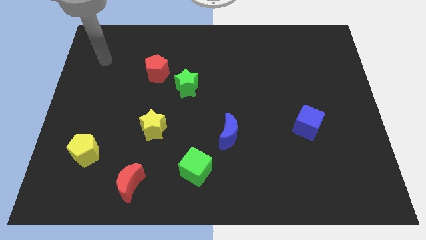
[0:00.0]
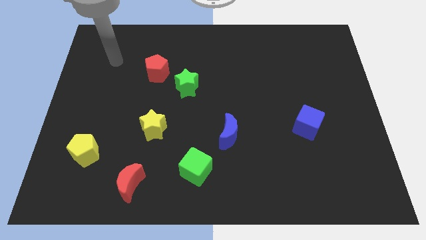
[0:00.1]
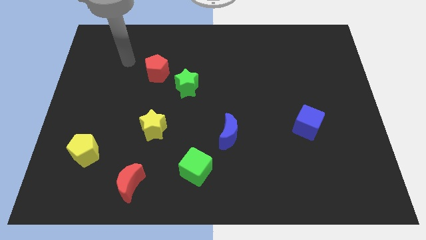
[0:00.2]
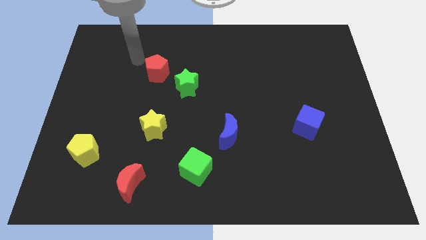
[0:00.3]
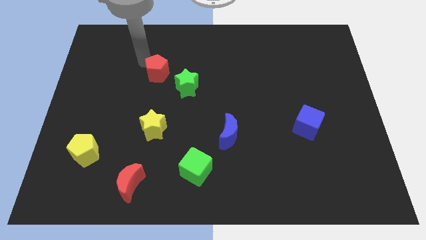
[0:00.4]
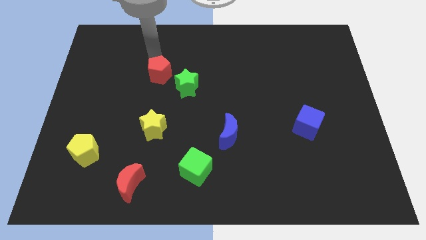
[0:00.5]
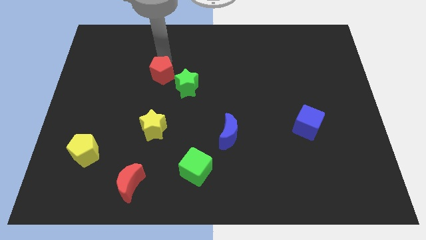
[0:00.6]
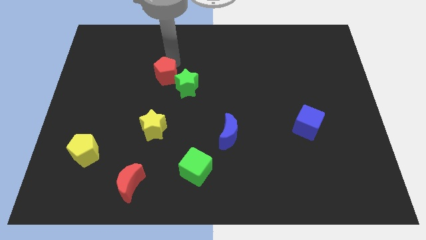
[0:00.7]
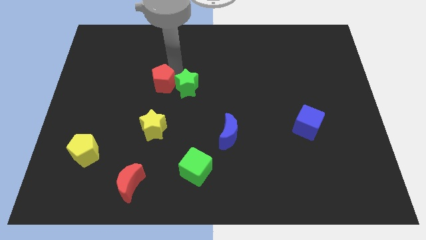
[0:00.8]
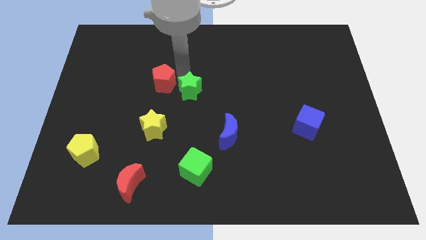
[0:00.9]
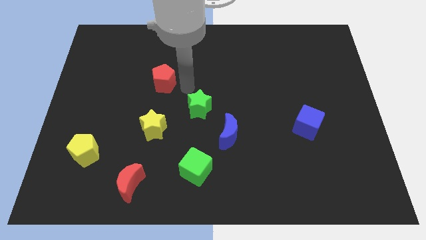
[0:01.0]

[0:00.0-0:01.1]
separate the red pentagon from the green star

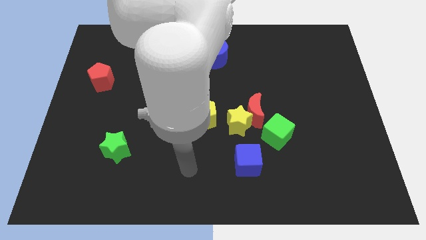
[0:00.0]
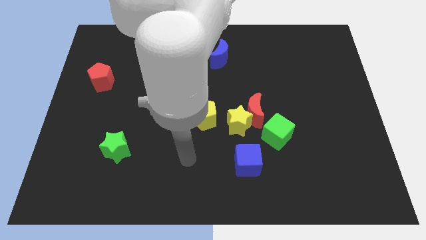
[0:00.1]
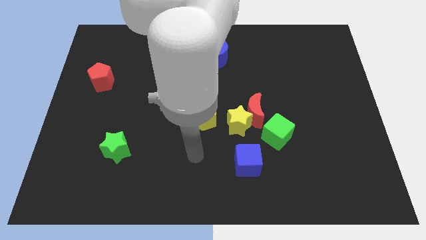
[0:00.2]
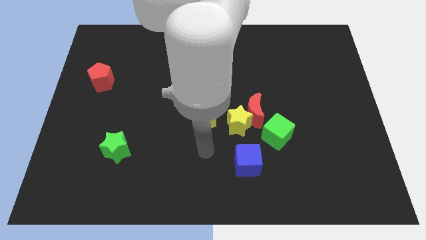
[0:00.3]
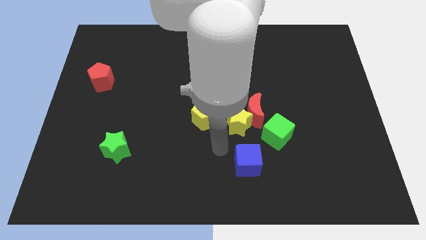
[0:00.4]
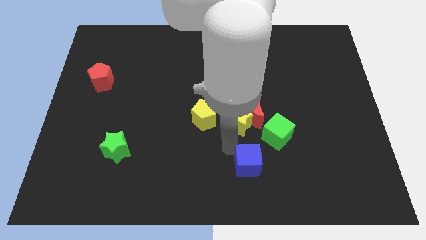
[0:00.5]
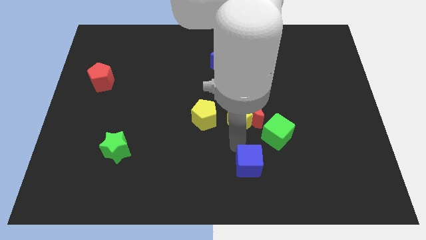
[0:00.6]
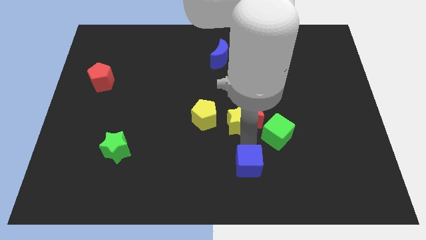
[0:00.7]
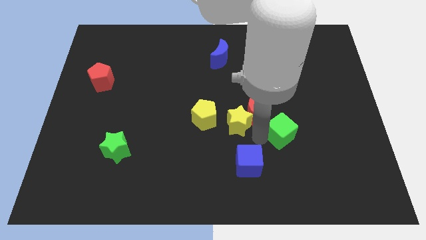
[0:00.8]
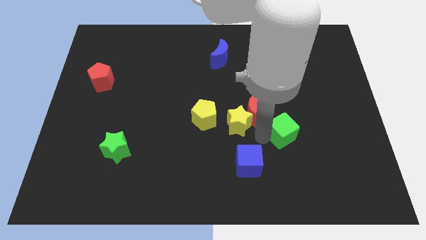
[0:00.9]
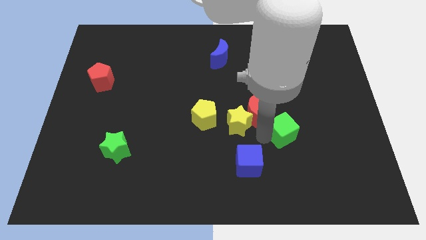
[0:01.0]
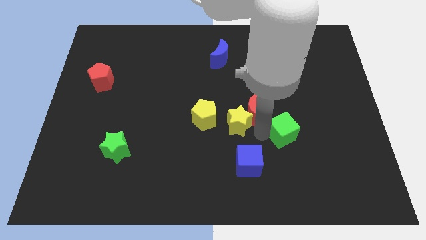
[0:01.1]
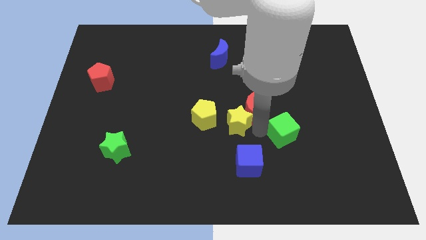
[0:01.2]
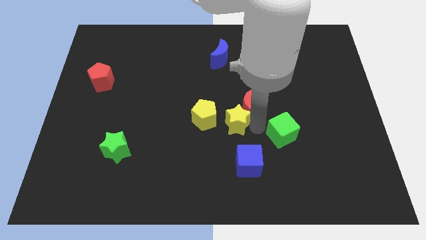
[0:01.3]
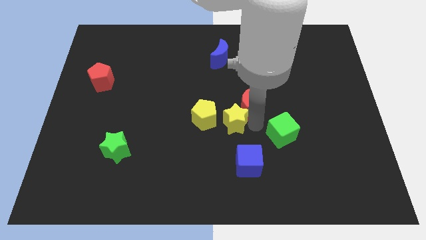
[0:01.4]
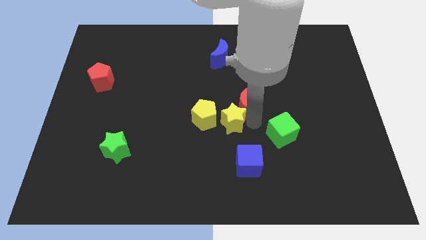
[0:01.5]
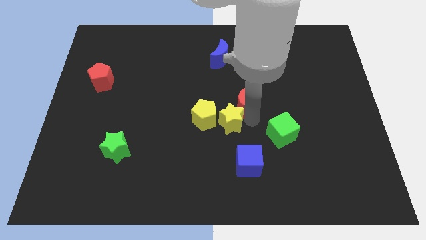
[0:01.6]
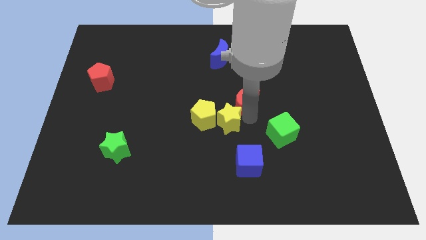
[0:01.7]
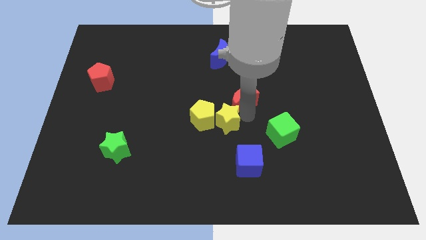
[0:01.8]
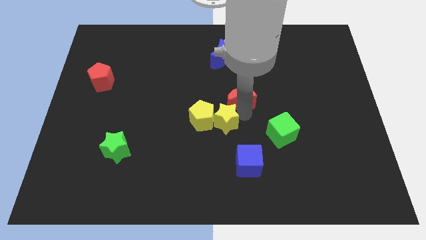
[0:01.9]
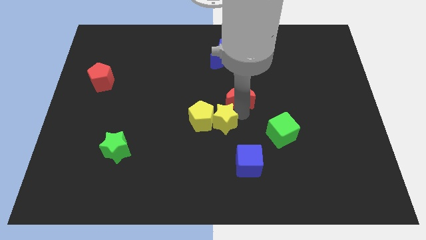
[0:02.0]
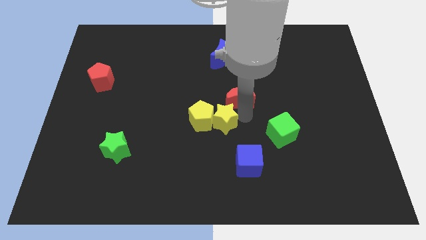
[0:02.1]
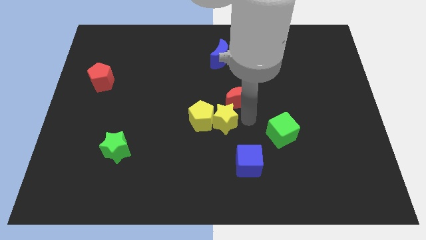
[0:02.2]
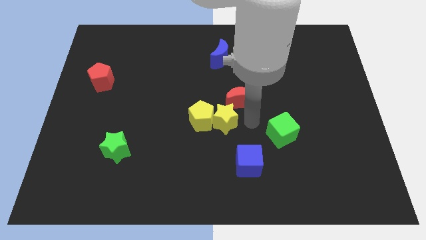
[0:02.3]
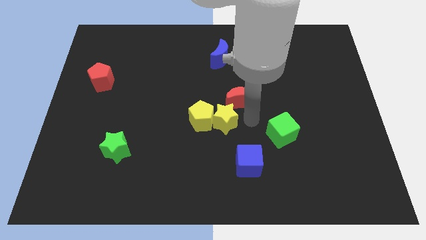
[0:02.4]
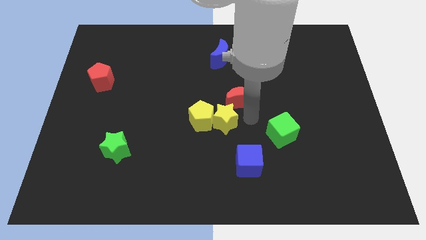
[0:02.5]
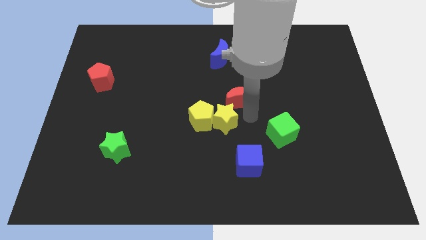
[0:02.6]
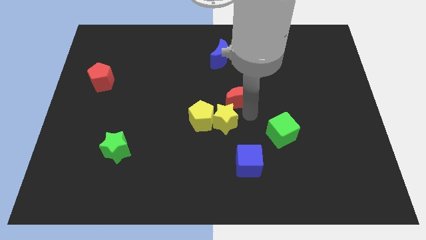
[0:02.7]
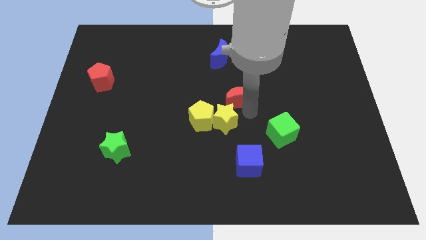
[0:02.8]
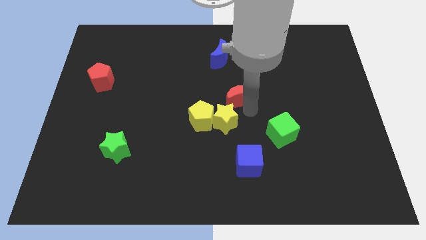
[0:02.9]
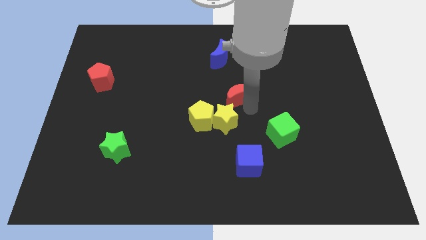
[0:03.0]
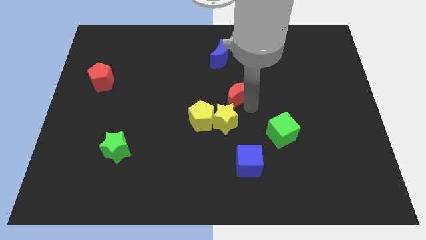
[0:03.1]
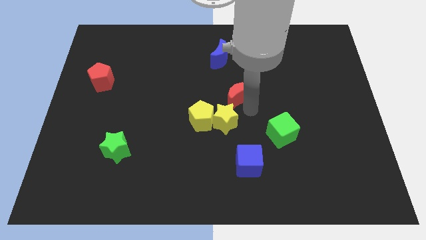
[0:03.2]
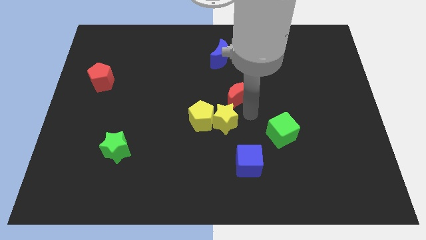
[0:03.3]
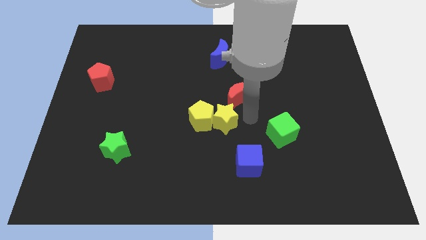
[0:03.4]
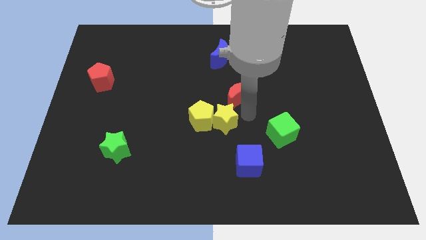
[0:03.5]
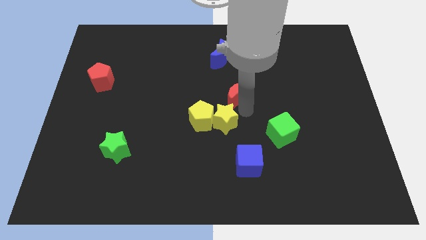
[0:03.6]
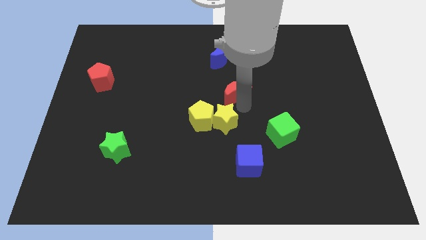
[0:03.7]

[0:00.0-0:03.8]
move the red moon away from the yellow star and green cube

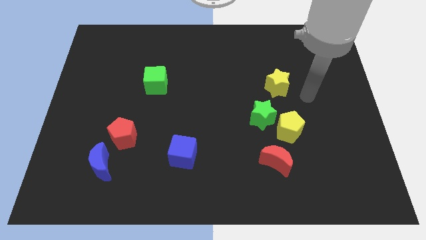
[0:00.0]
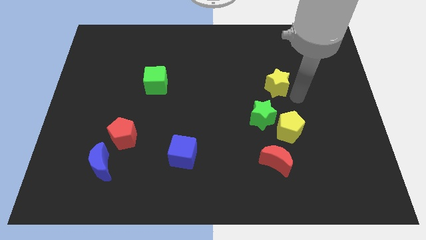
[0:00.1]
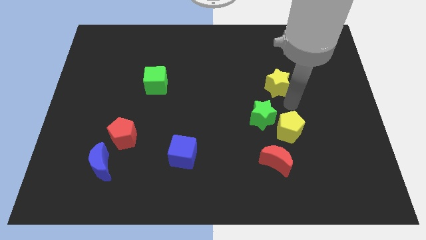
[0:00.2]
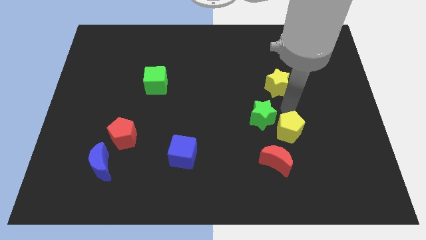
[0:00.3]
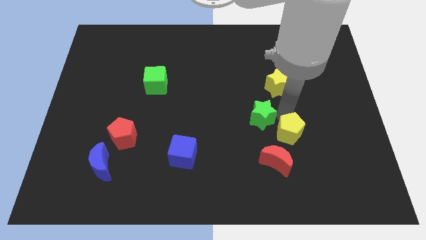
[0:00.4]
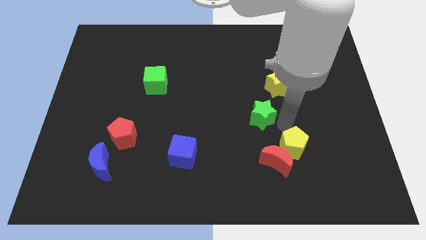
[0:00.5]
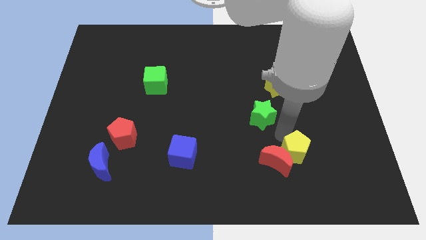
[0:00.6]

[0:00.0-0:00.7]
pull the green star apart from the yellow pentagon

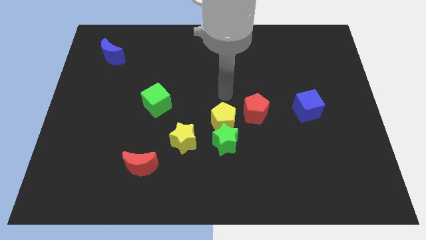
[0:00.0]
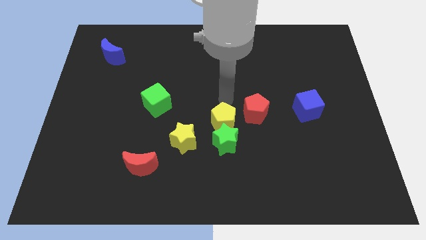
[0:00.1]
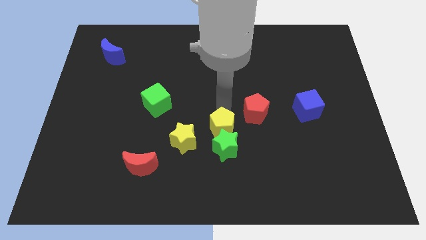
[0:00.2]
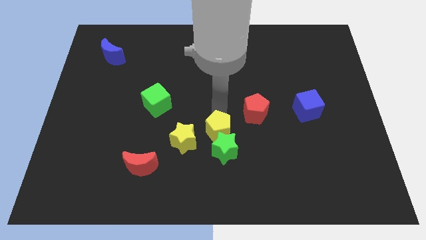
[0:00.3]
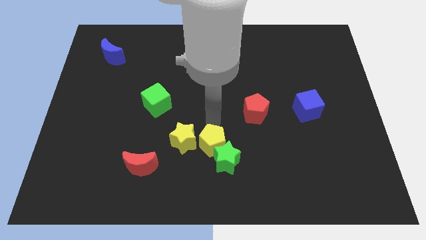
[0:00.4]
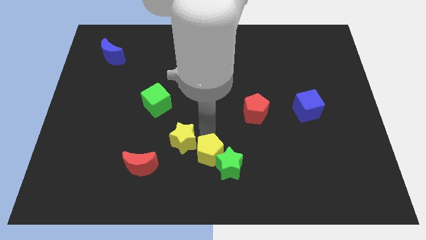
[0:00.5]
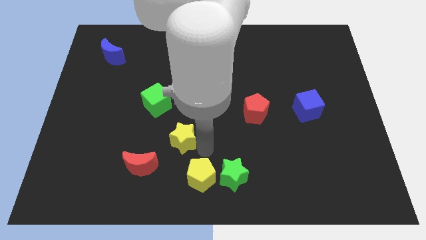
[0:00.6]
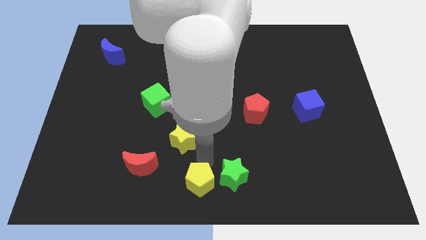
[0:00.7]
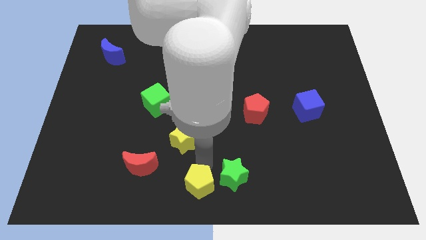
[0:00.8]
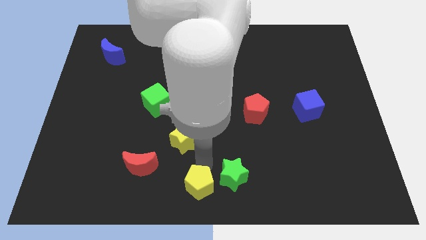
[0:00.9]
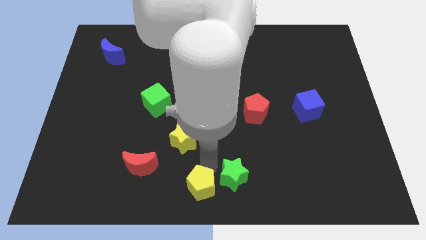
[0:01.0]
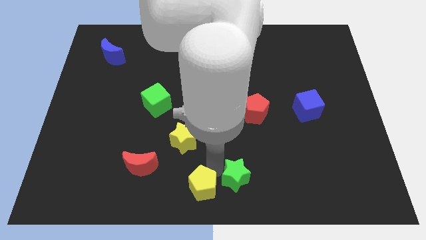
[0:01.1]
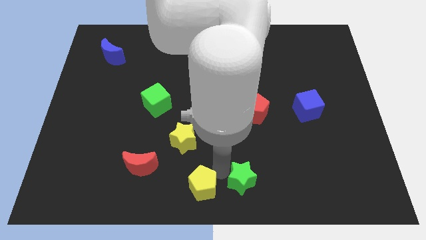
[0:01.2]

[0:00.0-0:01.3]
move the green star away from the yellow pentagon and yellow star

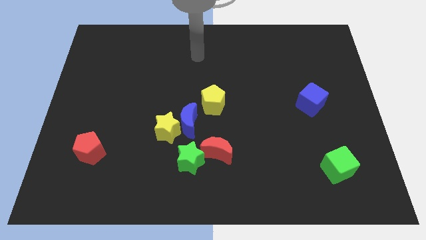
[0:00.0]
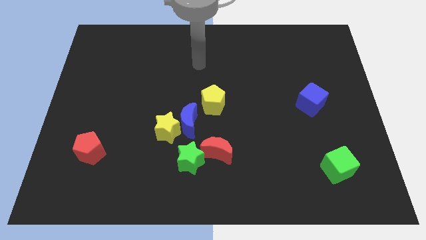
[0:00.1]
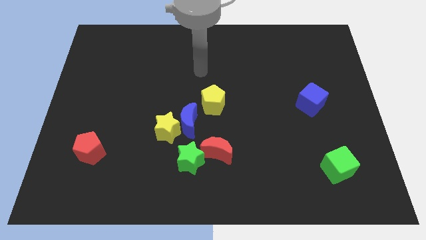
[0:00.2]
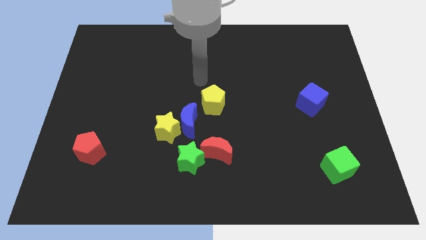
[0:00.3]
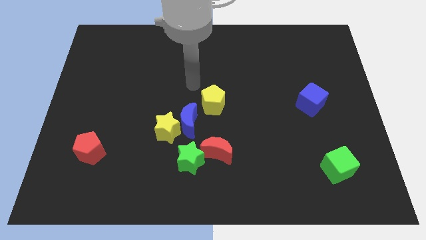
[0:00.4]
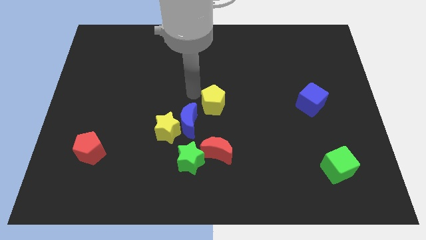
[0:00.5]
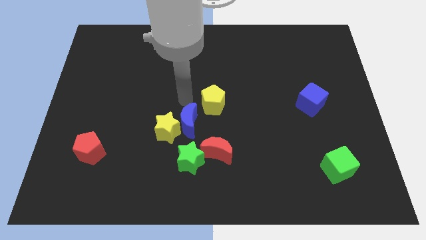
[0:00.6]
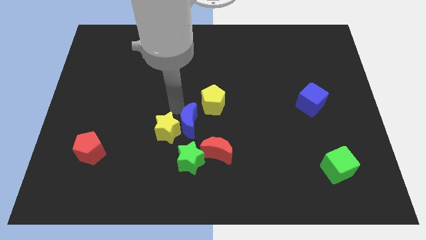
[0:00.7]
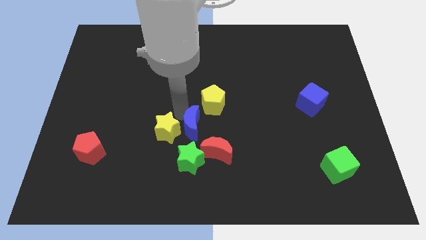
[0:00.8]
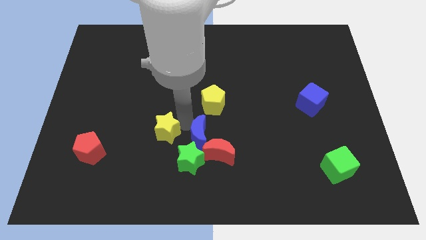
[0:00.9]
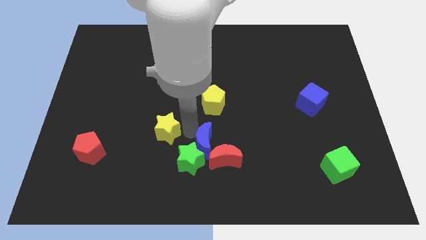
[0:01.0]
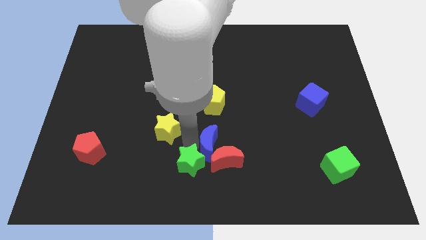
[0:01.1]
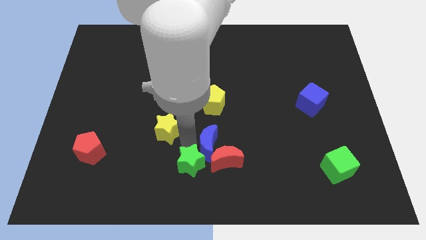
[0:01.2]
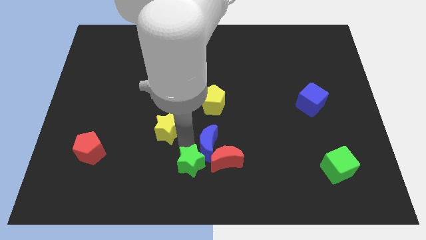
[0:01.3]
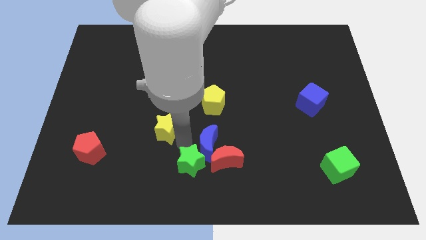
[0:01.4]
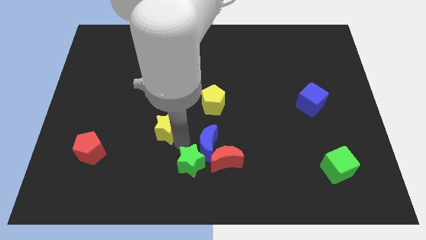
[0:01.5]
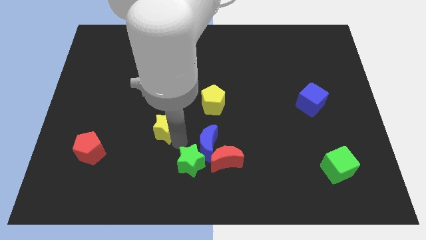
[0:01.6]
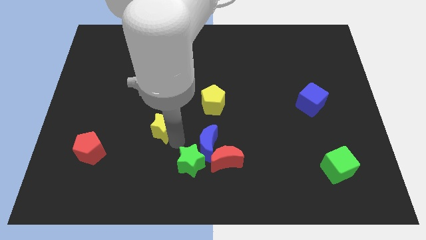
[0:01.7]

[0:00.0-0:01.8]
pull the yellow star apart from the blue moon and green star

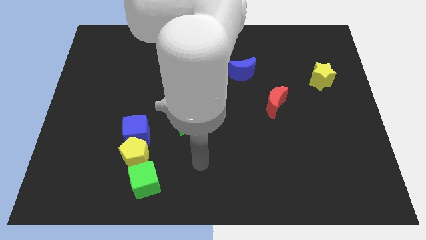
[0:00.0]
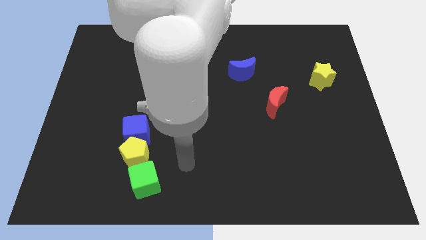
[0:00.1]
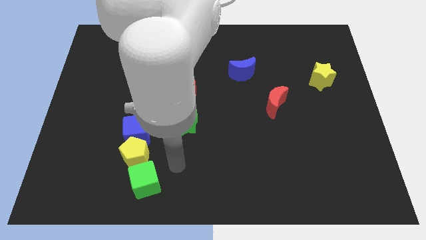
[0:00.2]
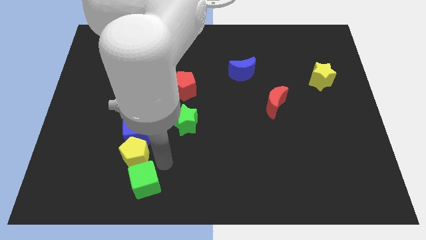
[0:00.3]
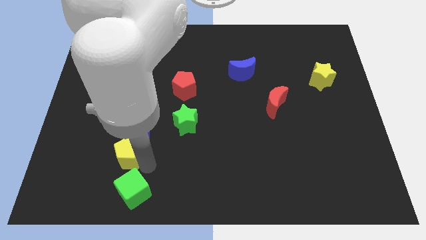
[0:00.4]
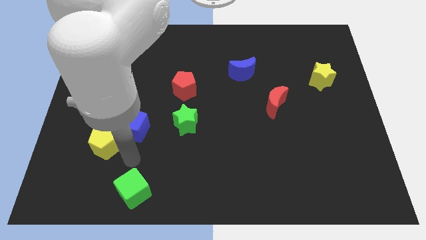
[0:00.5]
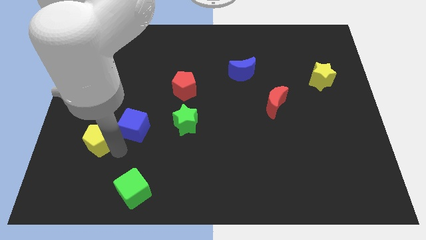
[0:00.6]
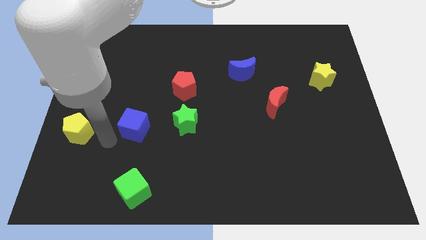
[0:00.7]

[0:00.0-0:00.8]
pull the blue cube apart from the yellow pentagon
